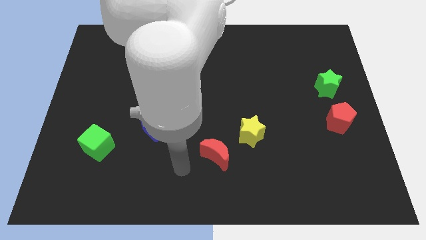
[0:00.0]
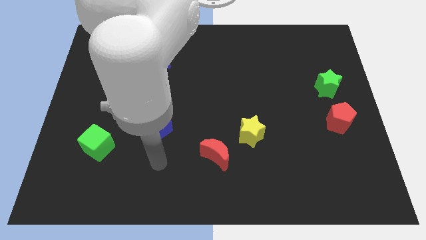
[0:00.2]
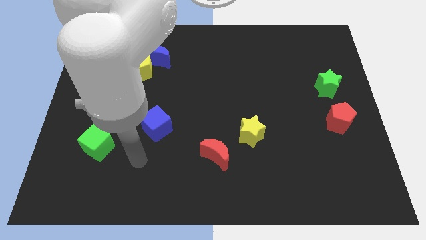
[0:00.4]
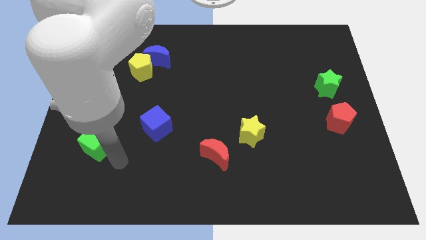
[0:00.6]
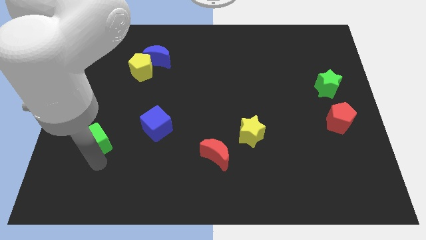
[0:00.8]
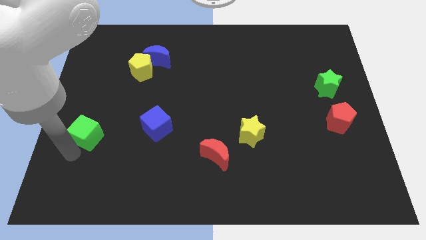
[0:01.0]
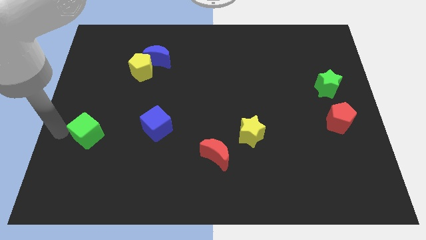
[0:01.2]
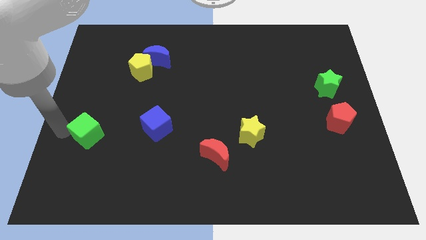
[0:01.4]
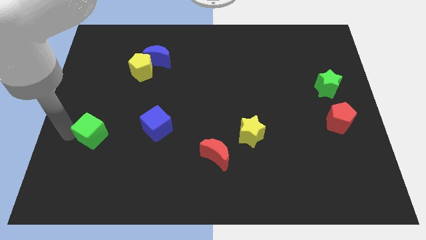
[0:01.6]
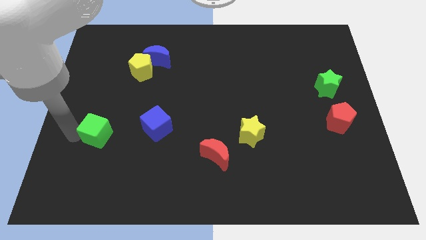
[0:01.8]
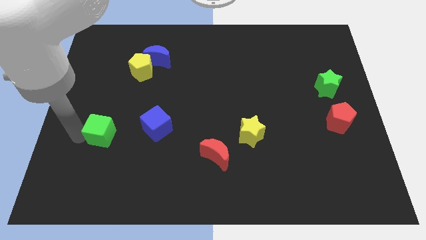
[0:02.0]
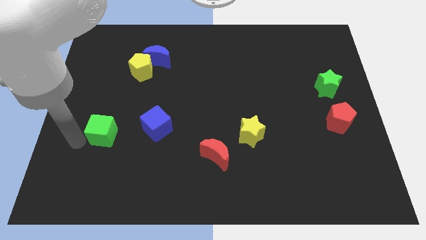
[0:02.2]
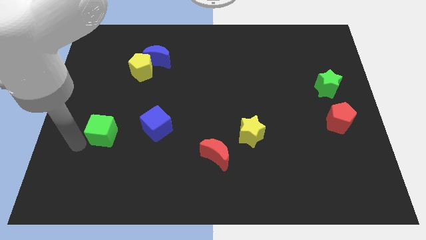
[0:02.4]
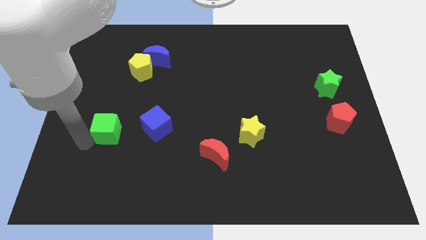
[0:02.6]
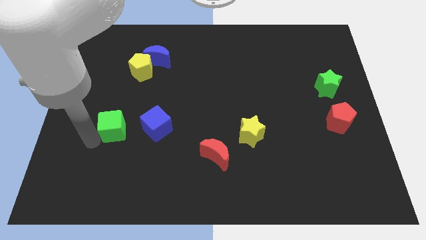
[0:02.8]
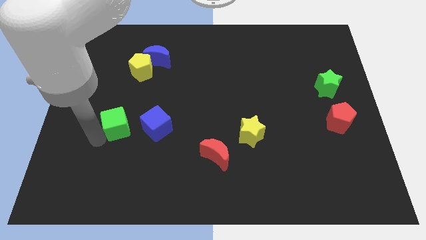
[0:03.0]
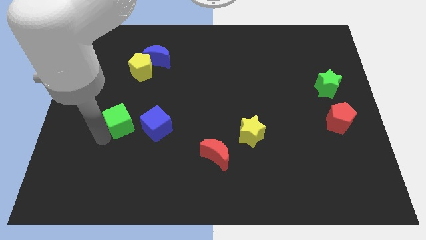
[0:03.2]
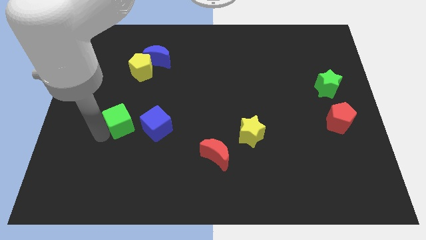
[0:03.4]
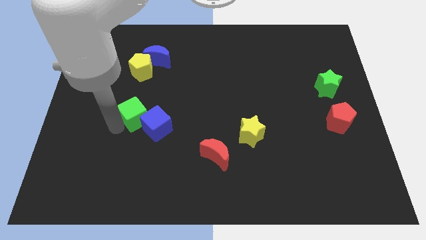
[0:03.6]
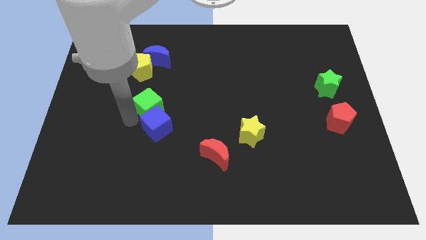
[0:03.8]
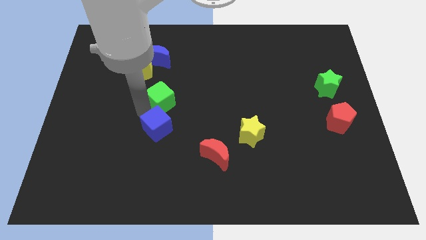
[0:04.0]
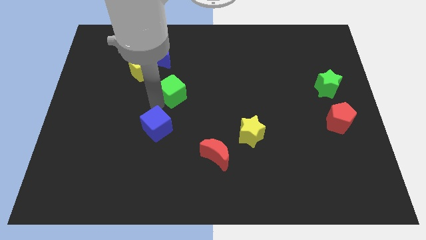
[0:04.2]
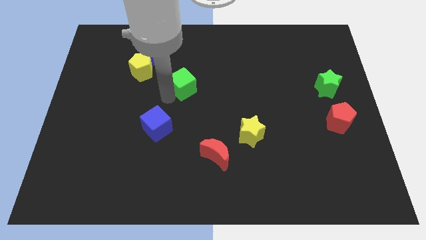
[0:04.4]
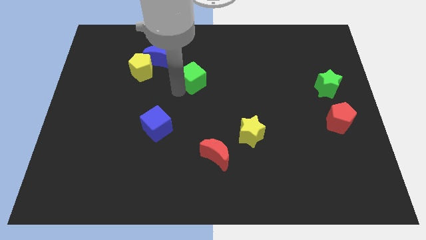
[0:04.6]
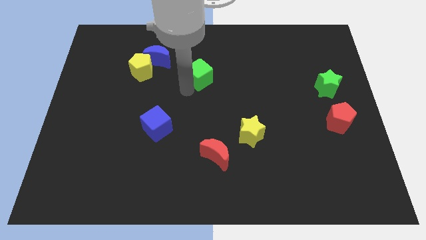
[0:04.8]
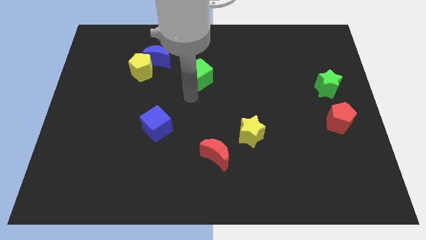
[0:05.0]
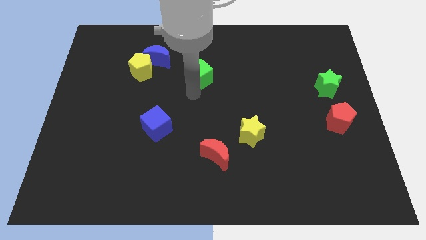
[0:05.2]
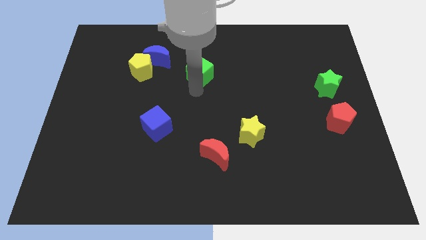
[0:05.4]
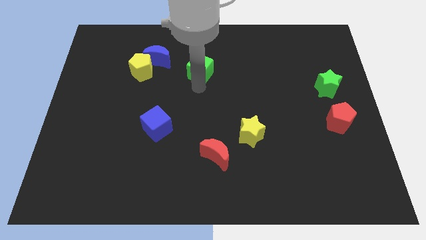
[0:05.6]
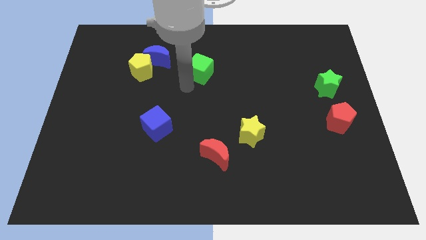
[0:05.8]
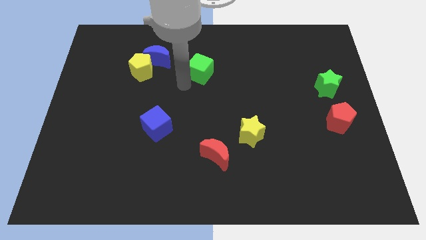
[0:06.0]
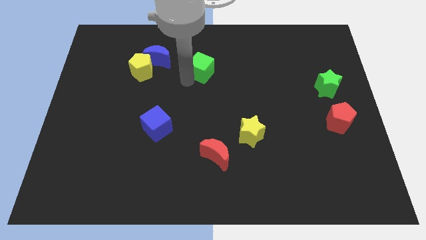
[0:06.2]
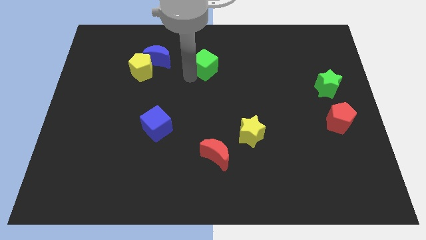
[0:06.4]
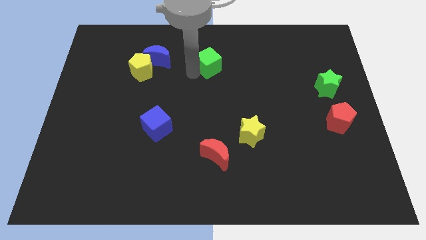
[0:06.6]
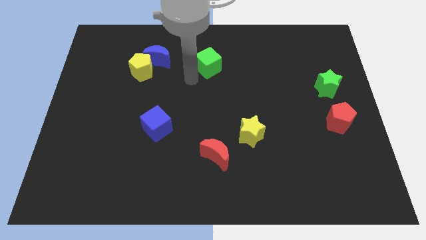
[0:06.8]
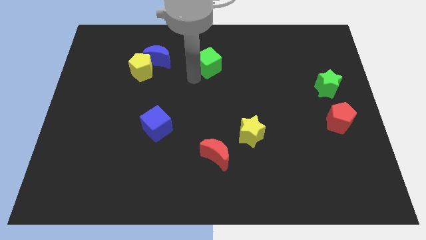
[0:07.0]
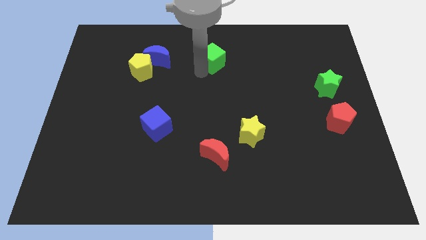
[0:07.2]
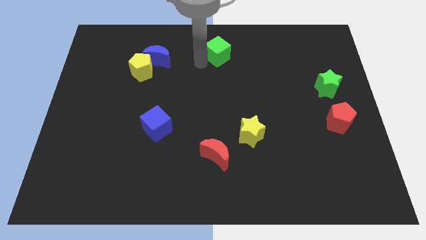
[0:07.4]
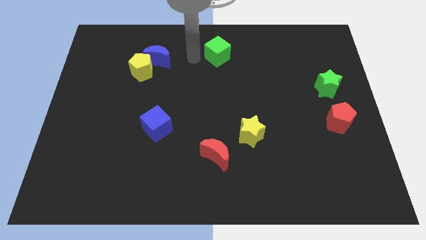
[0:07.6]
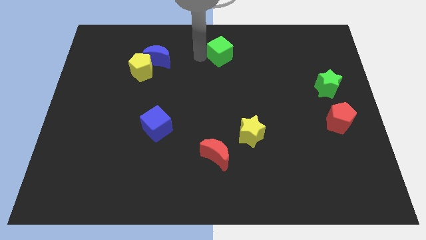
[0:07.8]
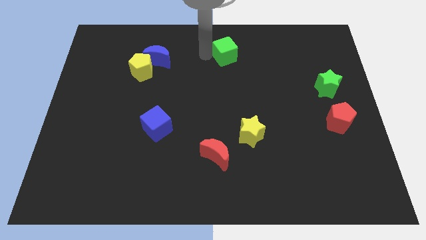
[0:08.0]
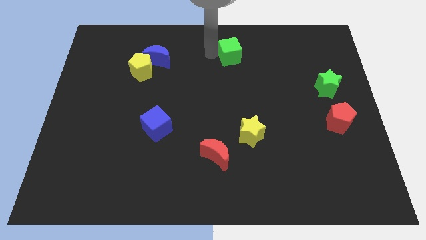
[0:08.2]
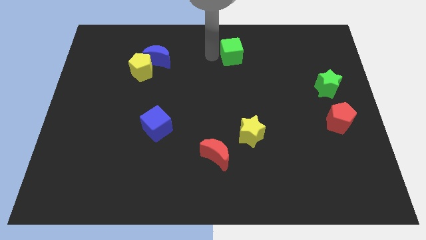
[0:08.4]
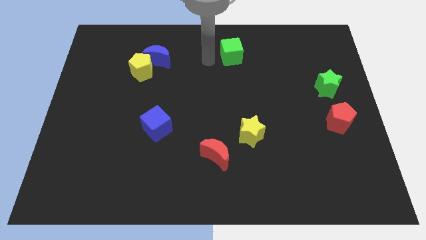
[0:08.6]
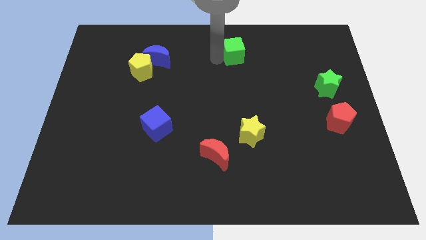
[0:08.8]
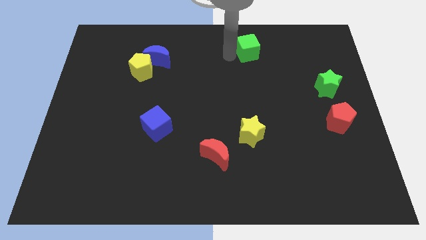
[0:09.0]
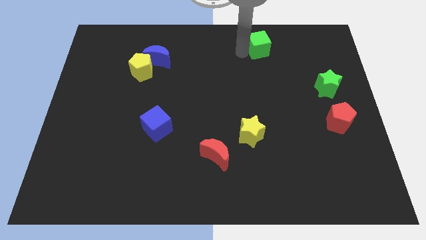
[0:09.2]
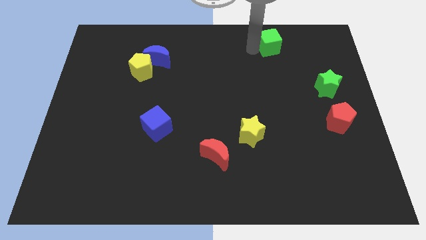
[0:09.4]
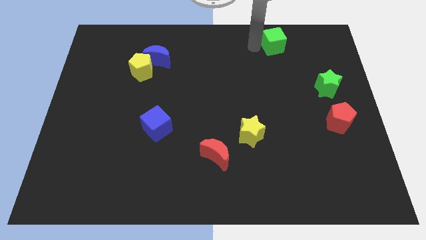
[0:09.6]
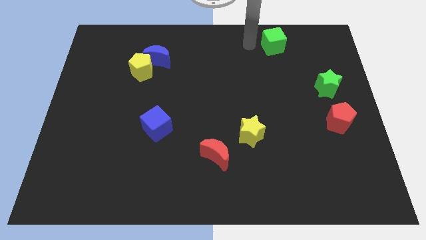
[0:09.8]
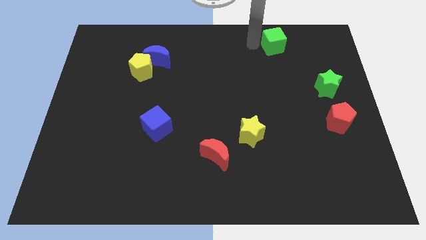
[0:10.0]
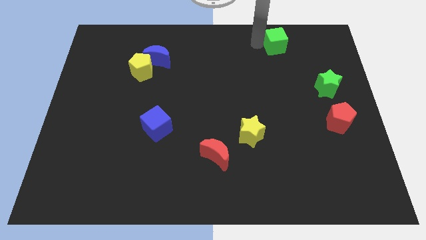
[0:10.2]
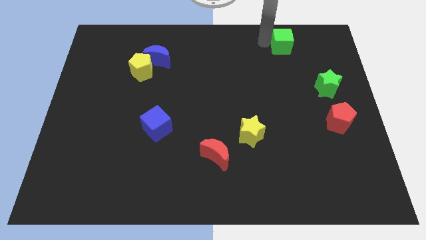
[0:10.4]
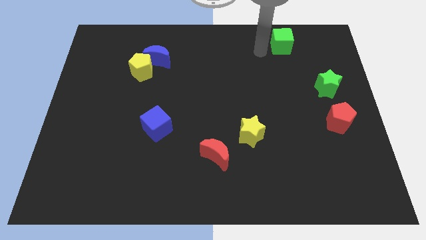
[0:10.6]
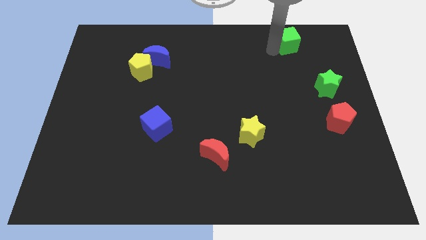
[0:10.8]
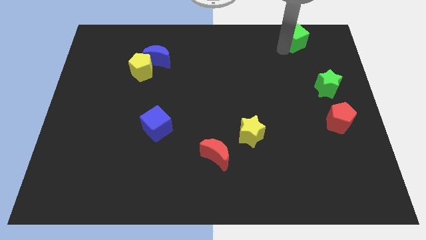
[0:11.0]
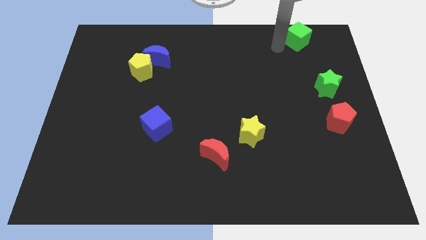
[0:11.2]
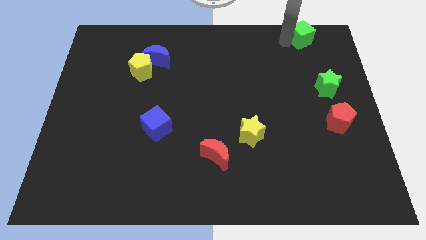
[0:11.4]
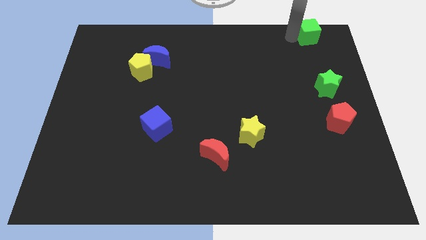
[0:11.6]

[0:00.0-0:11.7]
put the green cube to the upper right corner

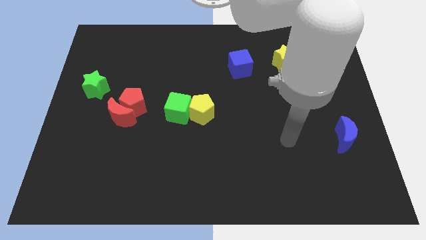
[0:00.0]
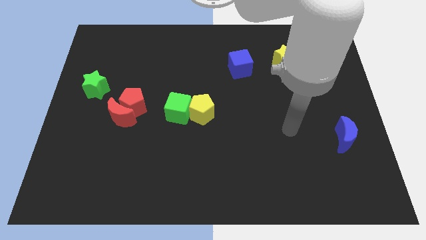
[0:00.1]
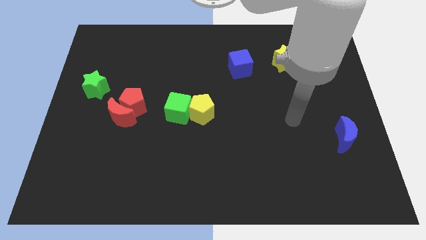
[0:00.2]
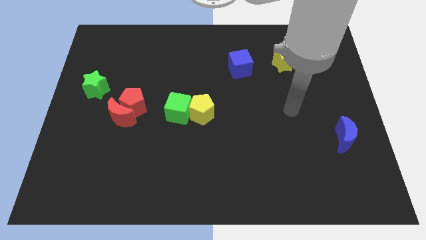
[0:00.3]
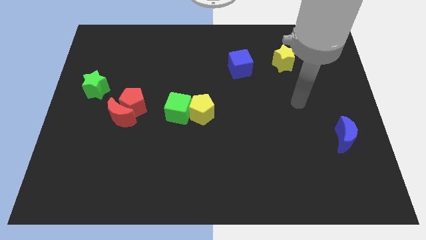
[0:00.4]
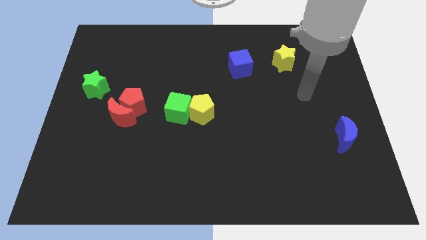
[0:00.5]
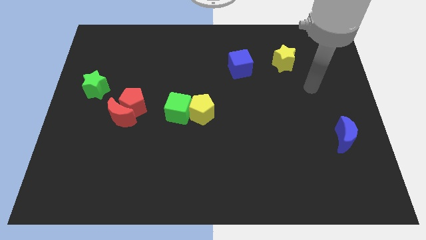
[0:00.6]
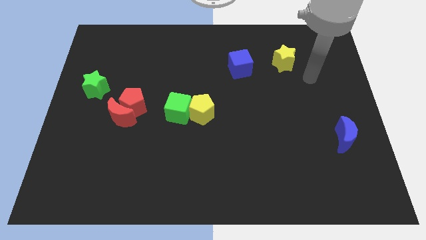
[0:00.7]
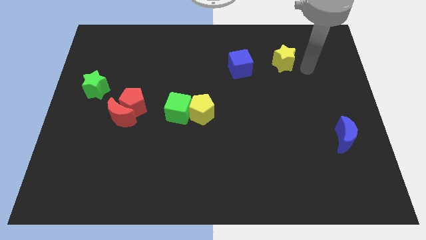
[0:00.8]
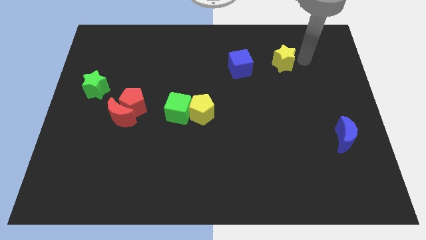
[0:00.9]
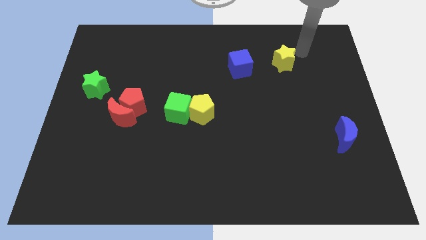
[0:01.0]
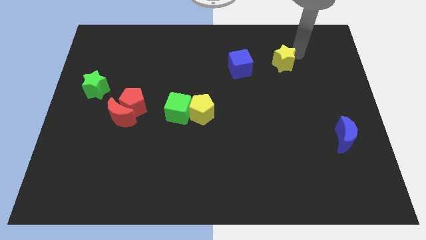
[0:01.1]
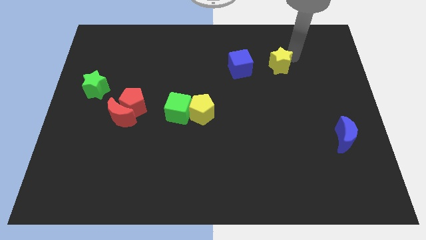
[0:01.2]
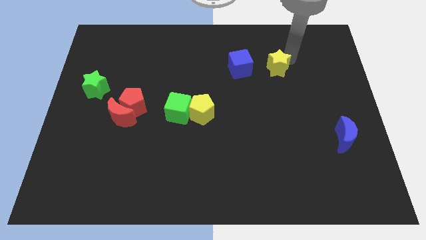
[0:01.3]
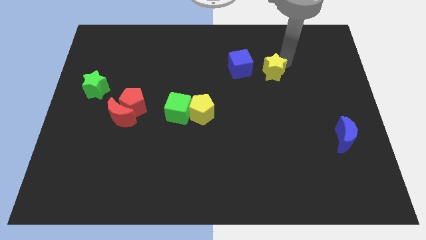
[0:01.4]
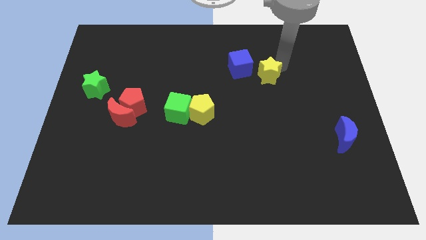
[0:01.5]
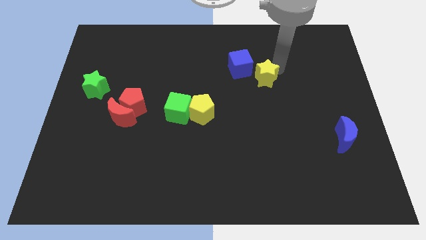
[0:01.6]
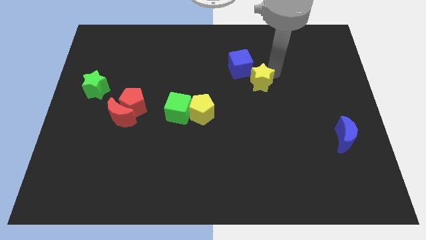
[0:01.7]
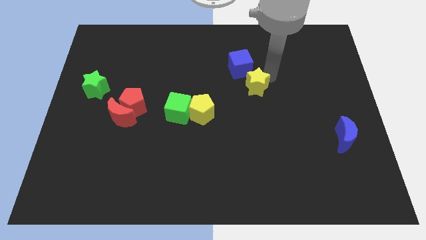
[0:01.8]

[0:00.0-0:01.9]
push the yellow star to the center
